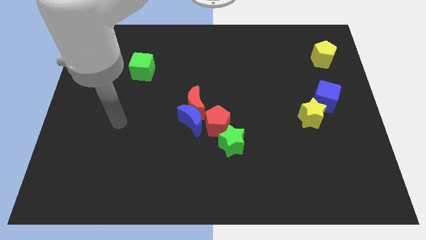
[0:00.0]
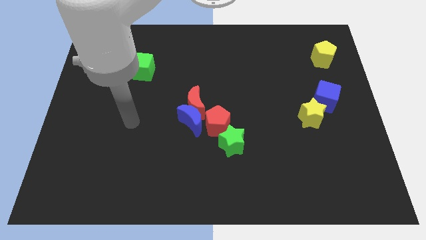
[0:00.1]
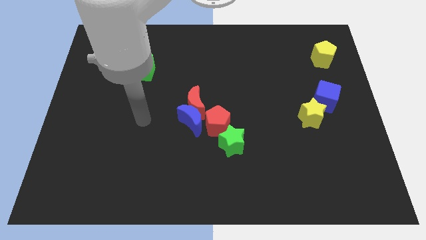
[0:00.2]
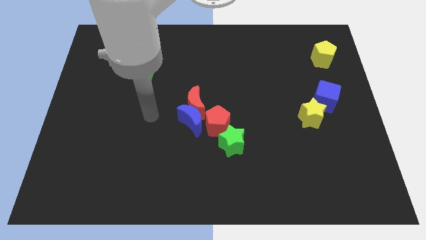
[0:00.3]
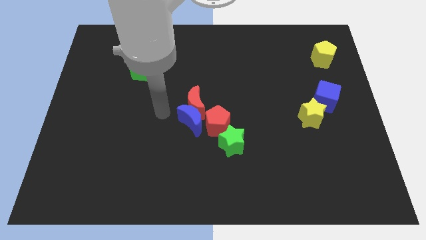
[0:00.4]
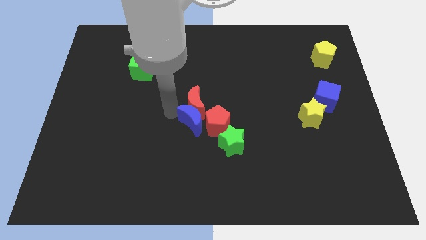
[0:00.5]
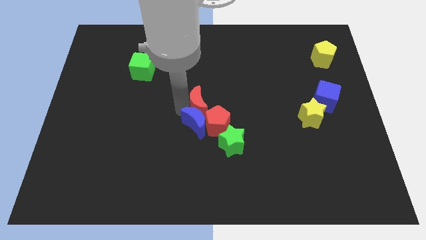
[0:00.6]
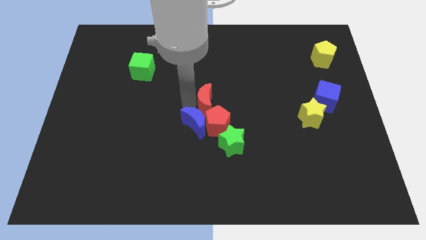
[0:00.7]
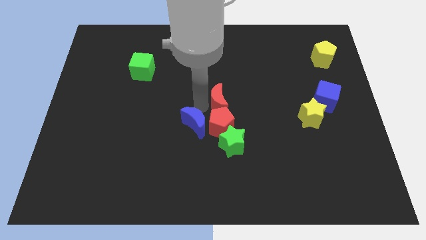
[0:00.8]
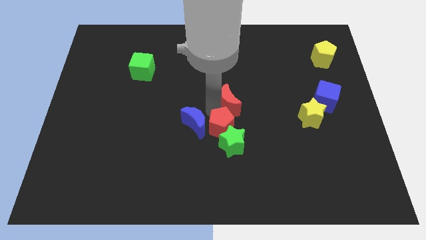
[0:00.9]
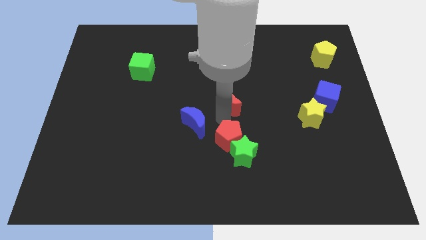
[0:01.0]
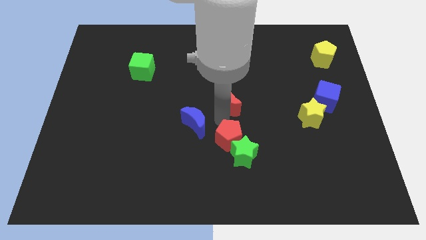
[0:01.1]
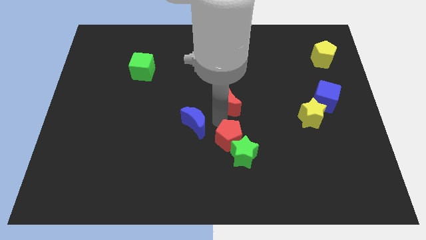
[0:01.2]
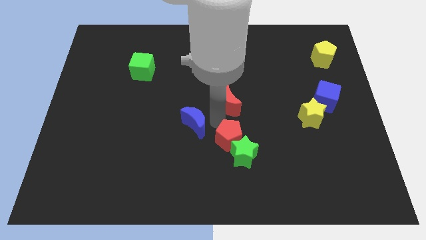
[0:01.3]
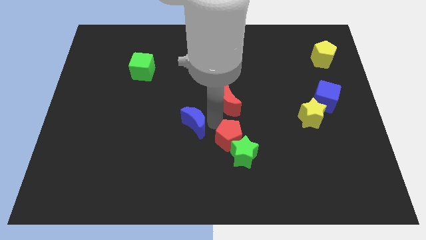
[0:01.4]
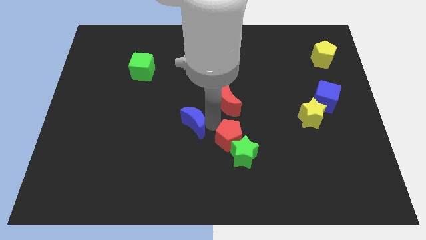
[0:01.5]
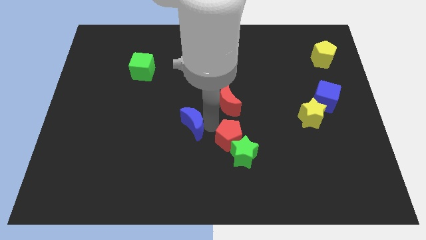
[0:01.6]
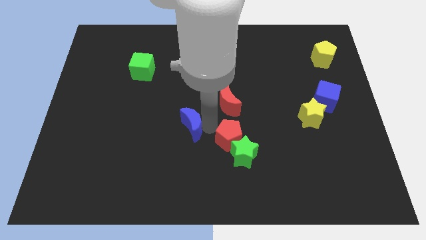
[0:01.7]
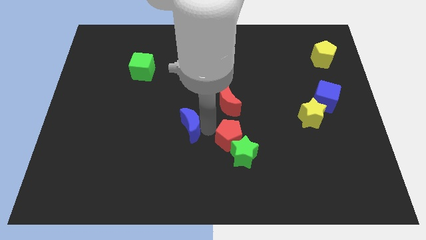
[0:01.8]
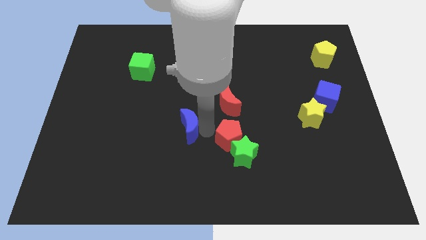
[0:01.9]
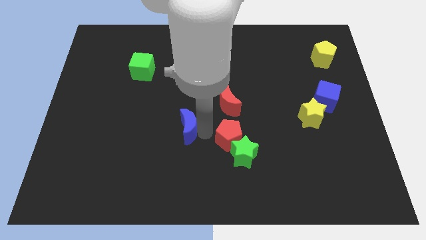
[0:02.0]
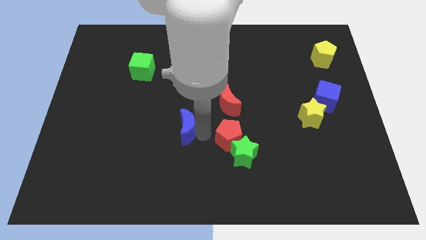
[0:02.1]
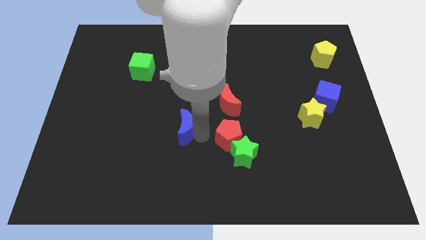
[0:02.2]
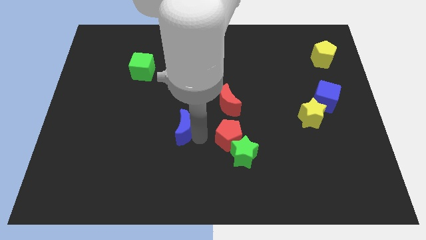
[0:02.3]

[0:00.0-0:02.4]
pull the blue moon apart from the red moon and red pentagon

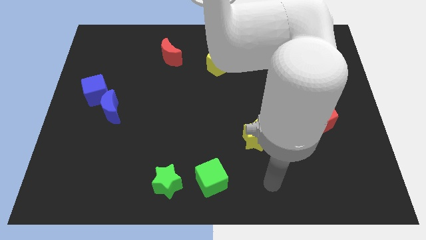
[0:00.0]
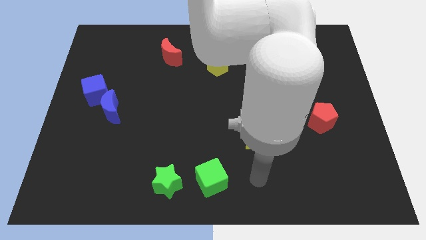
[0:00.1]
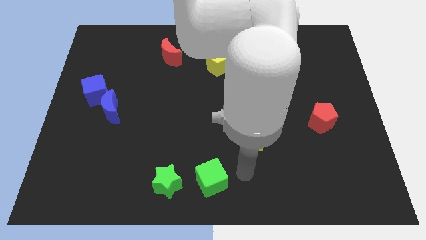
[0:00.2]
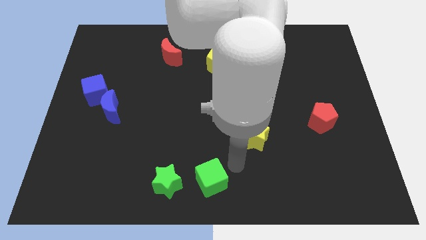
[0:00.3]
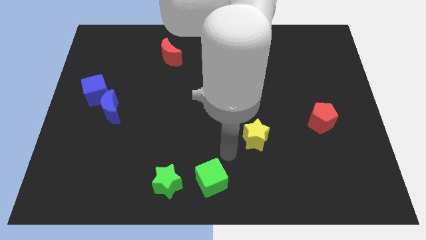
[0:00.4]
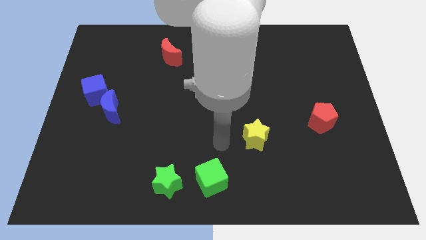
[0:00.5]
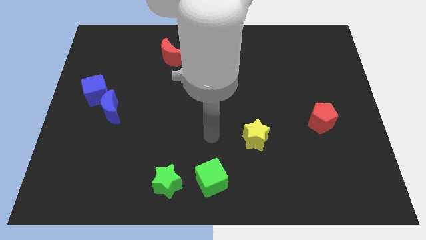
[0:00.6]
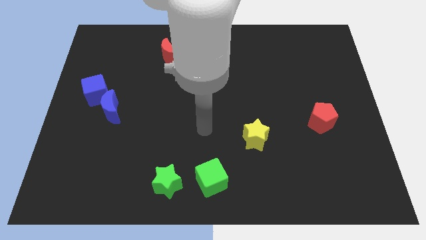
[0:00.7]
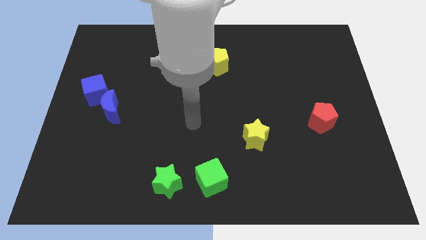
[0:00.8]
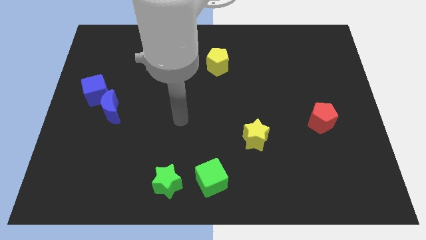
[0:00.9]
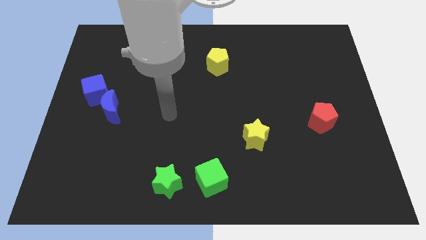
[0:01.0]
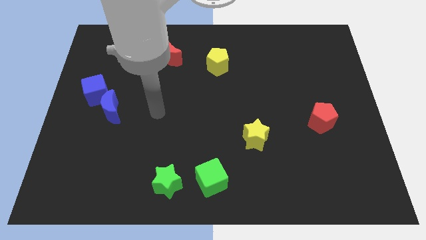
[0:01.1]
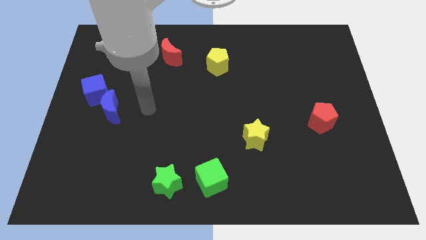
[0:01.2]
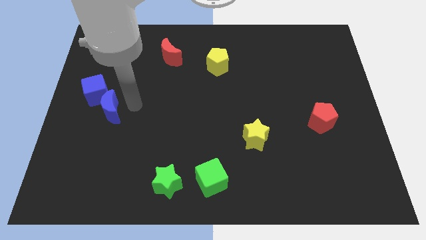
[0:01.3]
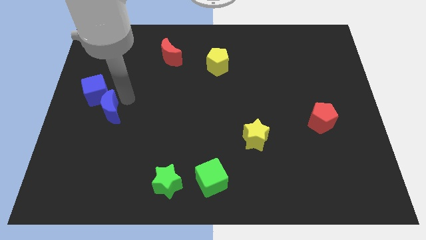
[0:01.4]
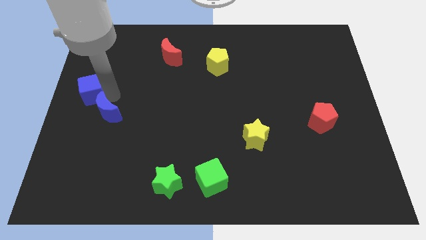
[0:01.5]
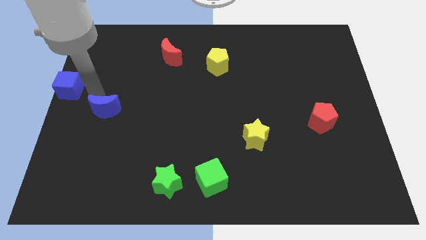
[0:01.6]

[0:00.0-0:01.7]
pull the blue moon apart from the blue cube

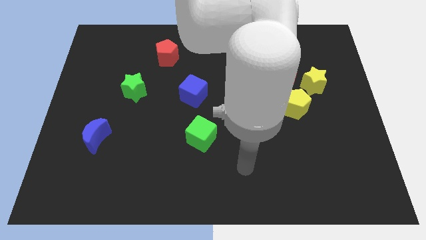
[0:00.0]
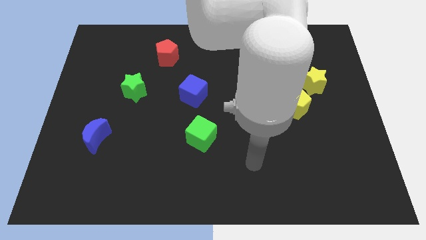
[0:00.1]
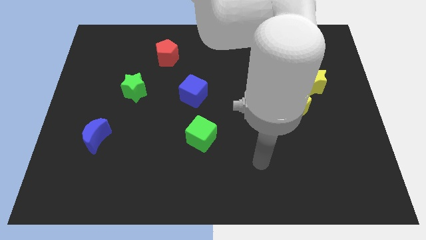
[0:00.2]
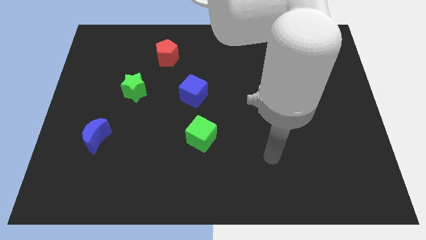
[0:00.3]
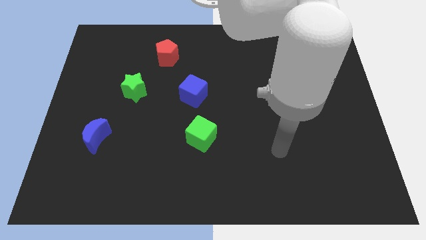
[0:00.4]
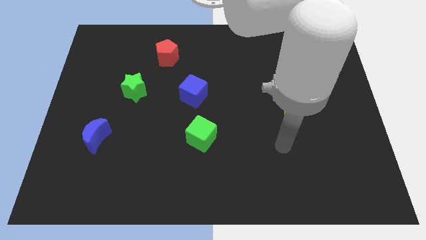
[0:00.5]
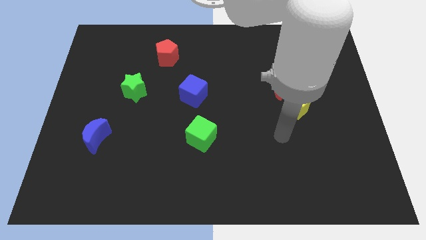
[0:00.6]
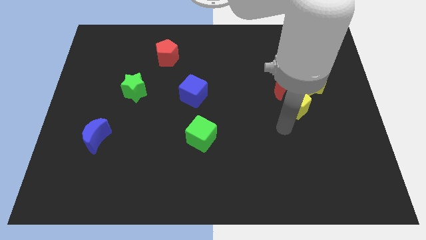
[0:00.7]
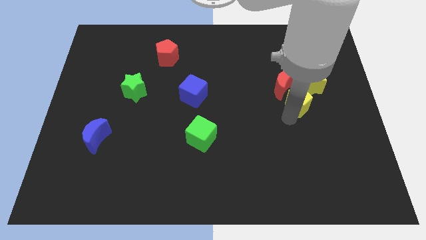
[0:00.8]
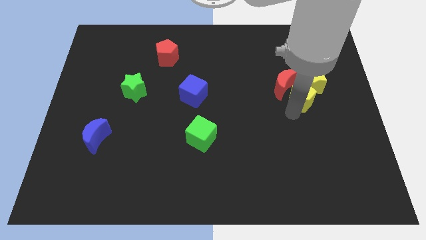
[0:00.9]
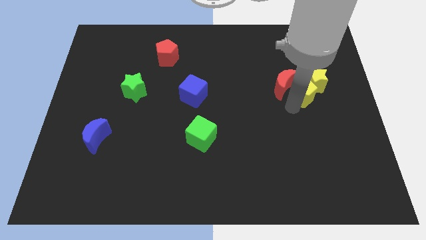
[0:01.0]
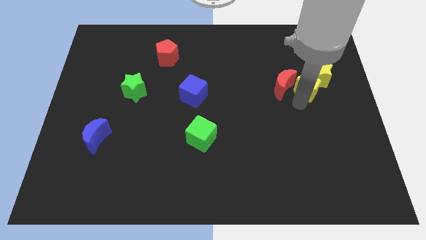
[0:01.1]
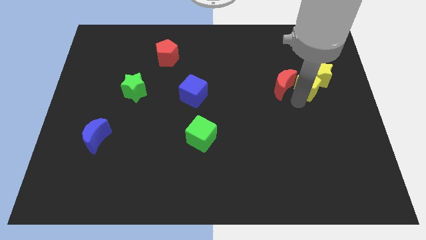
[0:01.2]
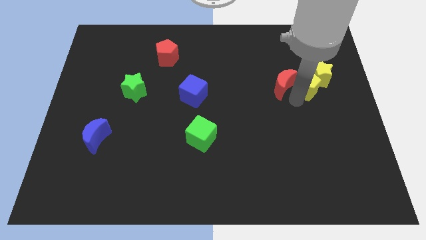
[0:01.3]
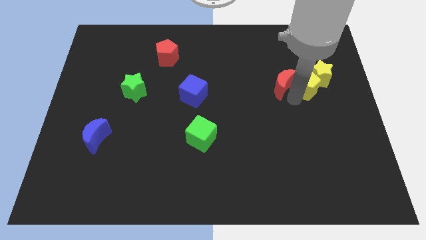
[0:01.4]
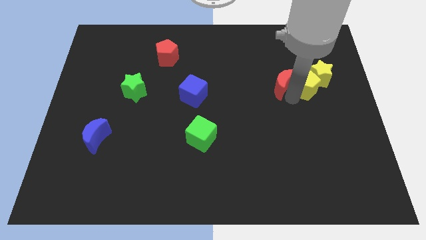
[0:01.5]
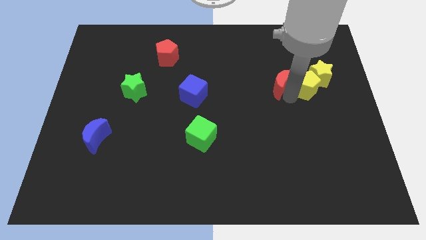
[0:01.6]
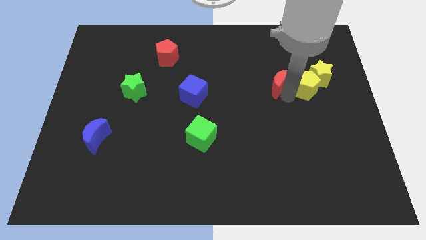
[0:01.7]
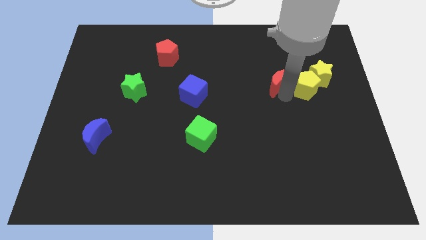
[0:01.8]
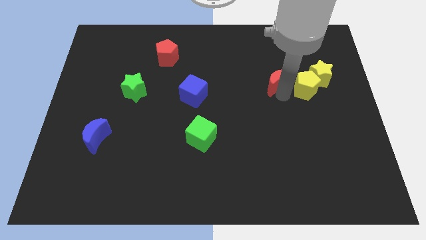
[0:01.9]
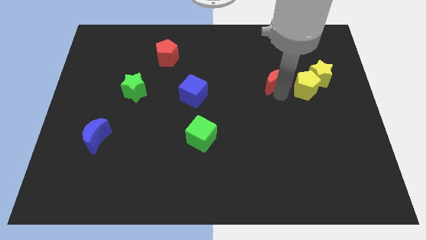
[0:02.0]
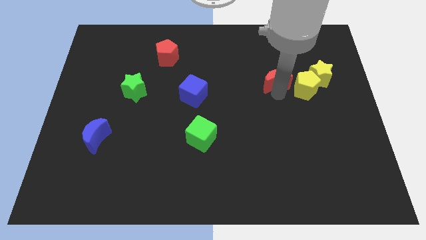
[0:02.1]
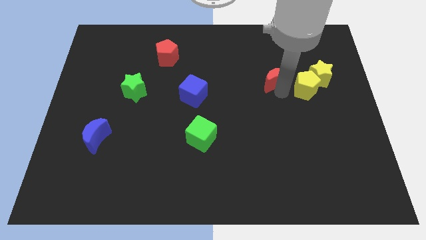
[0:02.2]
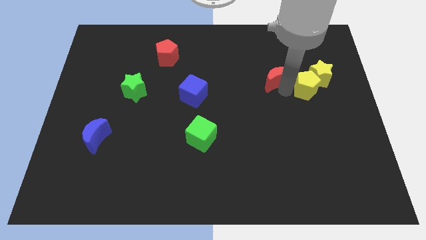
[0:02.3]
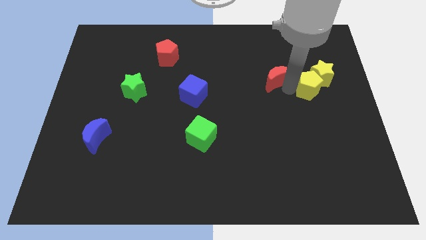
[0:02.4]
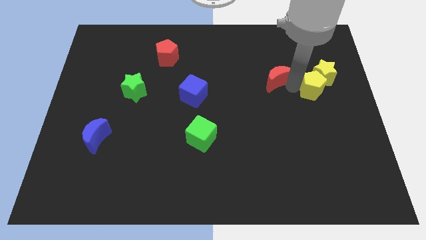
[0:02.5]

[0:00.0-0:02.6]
pull the red moon apart from the yellow pentagon and yellow star

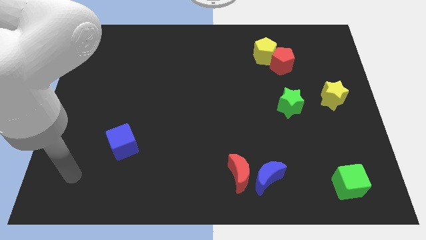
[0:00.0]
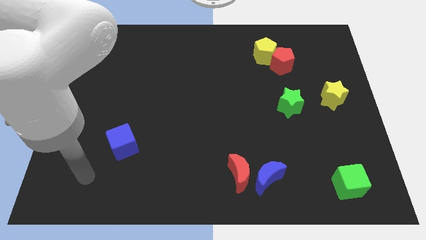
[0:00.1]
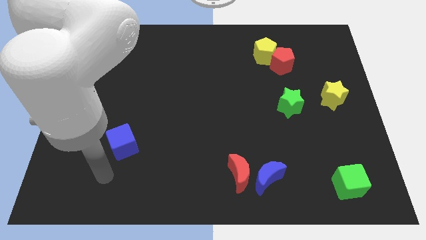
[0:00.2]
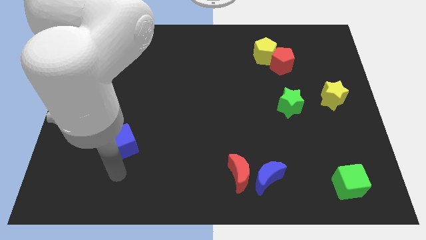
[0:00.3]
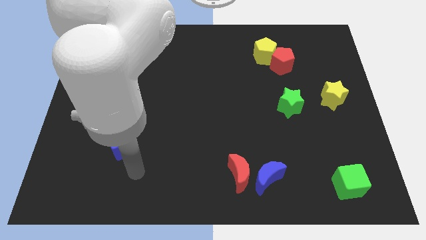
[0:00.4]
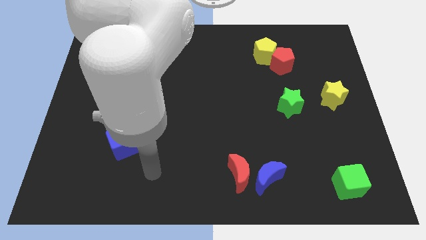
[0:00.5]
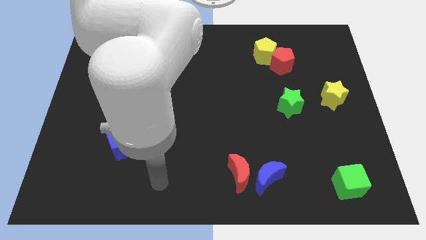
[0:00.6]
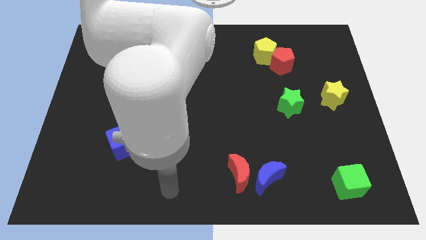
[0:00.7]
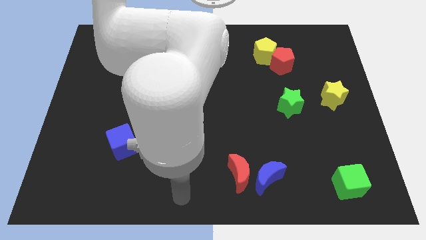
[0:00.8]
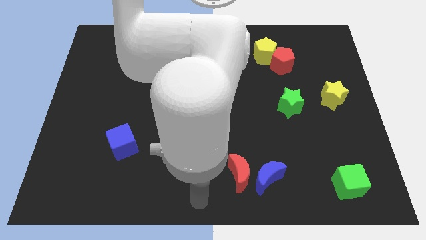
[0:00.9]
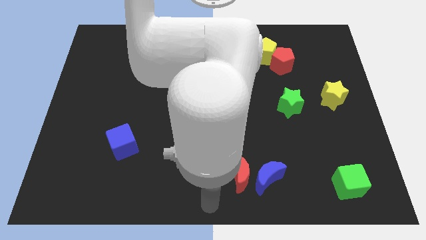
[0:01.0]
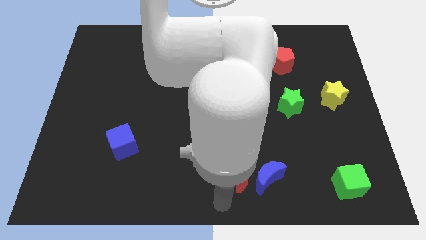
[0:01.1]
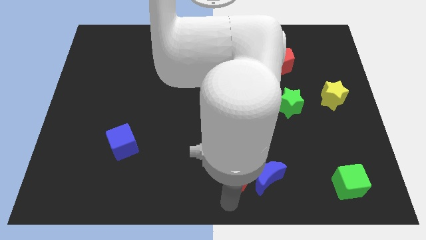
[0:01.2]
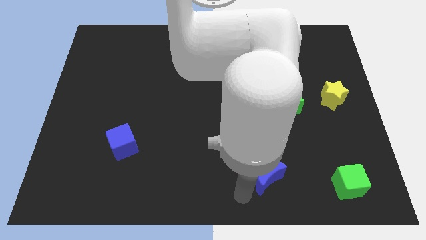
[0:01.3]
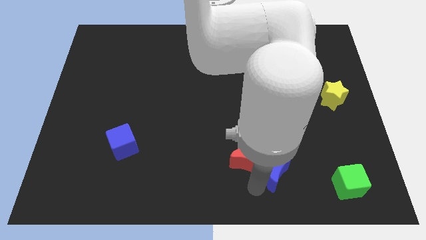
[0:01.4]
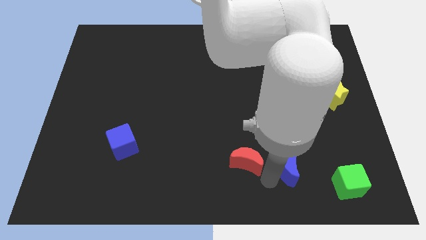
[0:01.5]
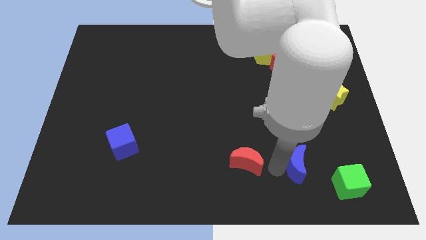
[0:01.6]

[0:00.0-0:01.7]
separate the red moon from the blue moon

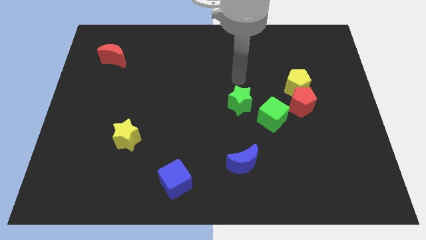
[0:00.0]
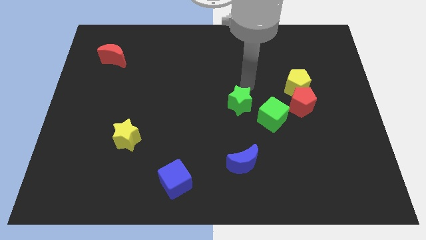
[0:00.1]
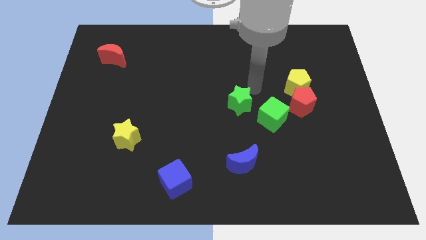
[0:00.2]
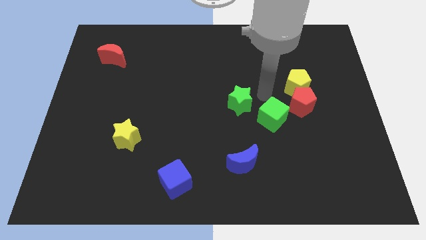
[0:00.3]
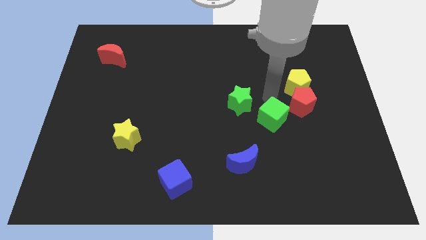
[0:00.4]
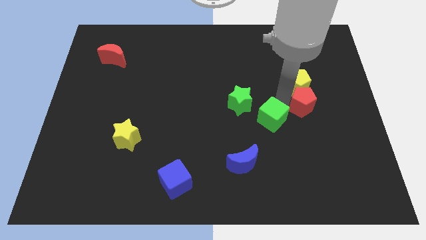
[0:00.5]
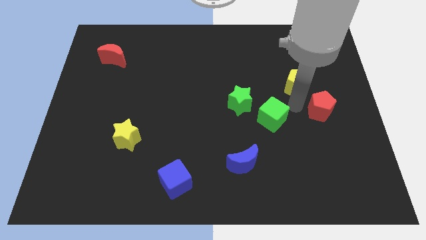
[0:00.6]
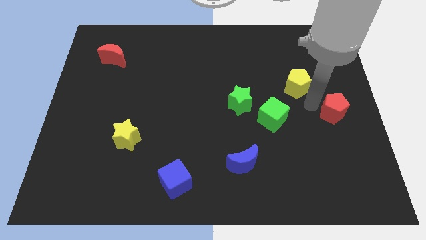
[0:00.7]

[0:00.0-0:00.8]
pull the yellow pentagon apart from the red pentagon

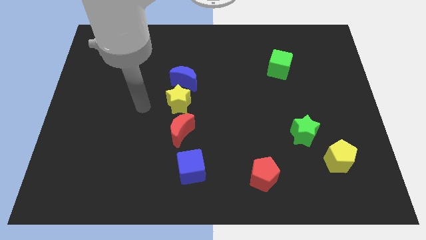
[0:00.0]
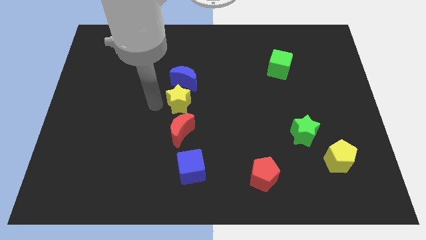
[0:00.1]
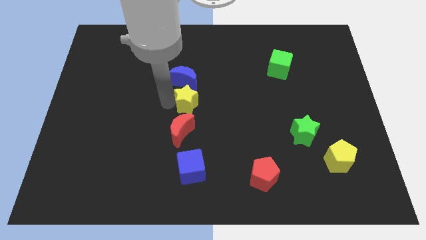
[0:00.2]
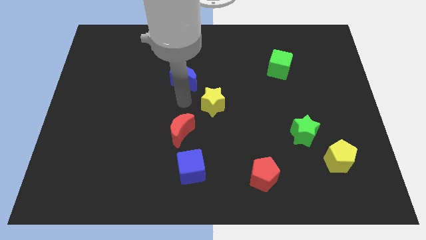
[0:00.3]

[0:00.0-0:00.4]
pull the blue moon apart from the yellow star
